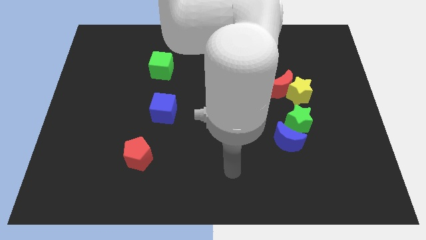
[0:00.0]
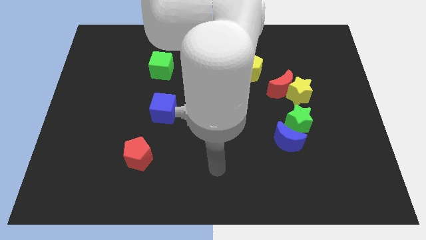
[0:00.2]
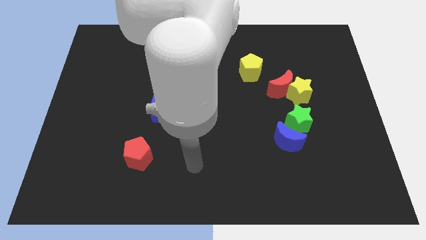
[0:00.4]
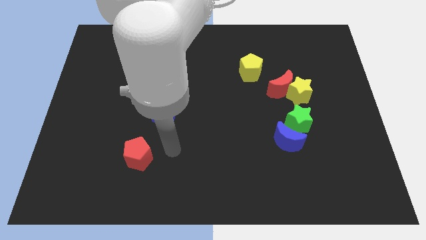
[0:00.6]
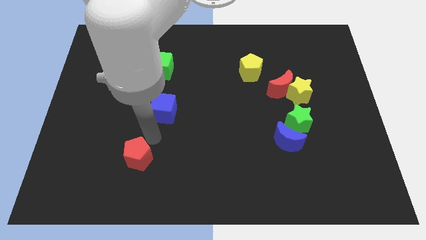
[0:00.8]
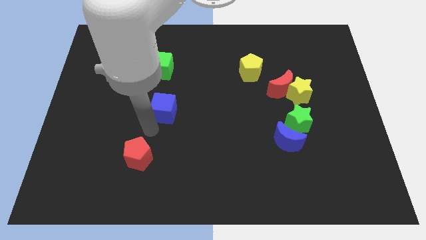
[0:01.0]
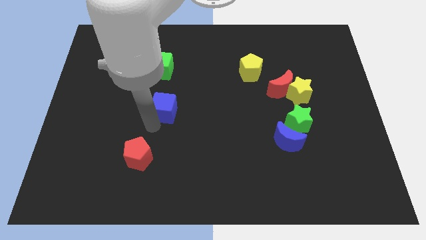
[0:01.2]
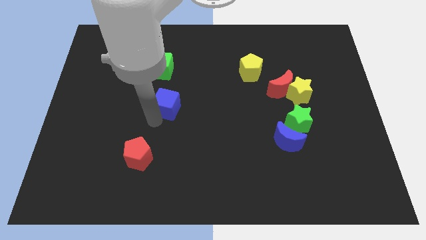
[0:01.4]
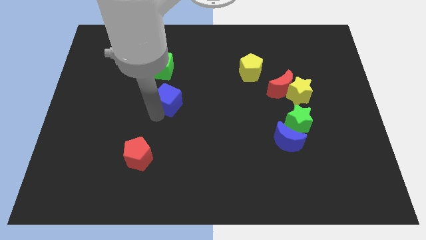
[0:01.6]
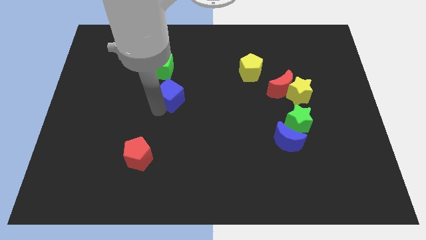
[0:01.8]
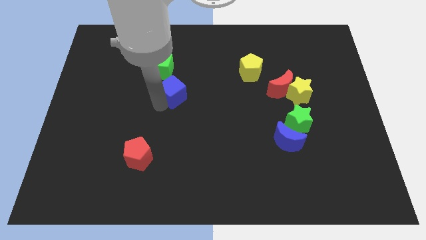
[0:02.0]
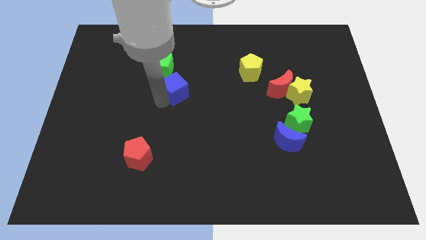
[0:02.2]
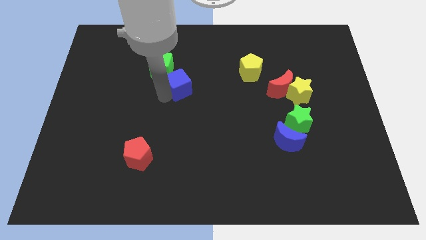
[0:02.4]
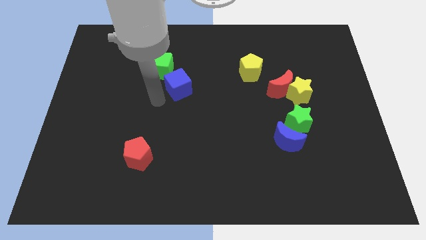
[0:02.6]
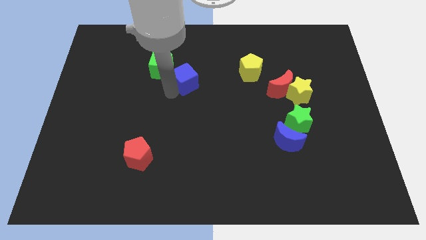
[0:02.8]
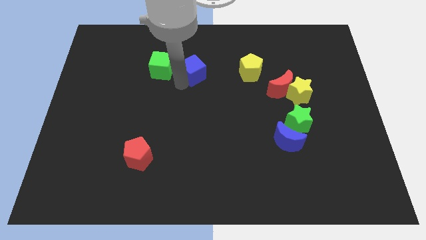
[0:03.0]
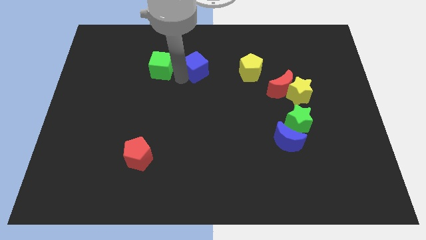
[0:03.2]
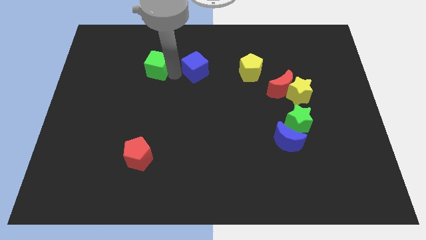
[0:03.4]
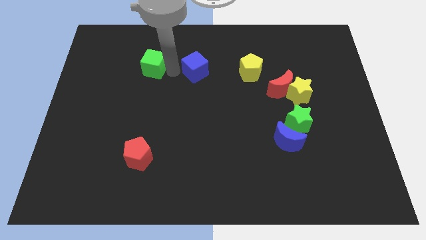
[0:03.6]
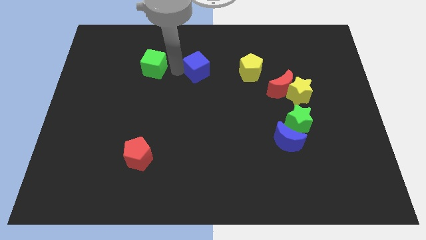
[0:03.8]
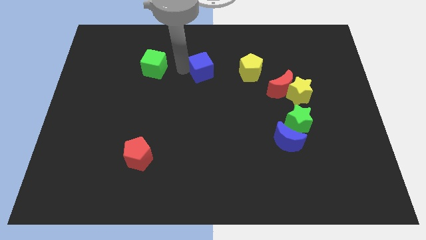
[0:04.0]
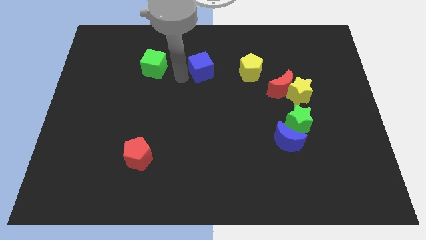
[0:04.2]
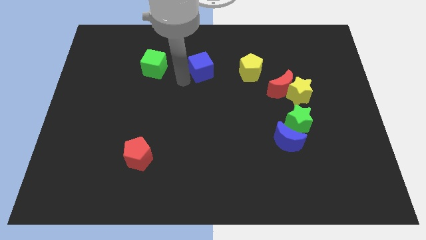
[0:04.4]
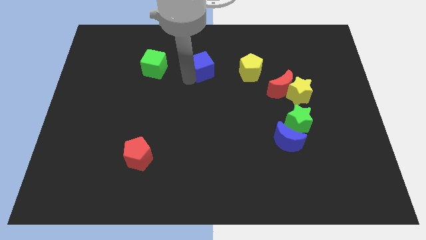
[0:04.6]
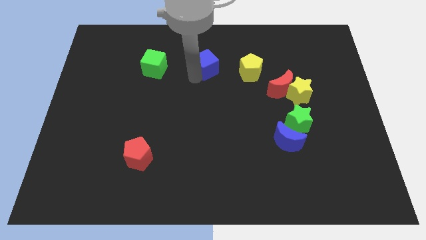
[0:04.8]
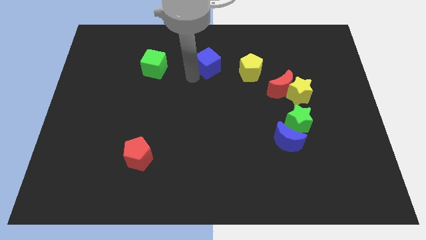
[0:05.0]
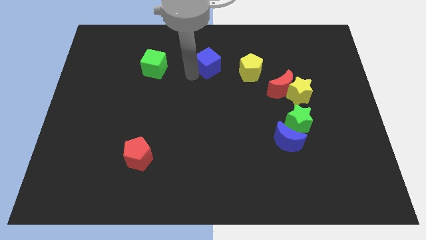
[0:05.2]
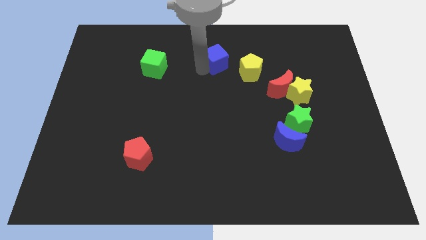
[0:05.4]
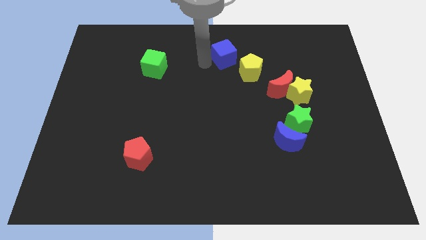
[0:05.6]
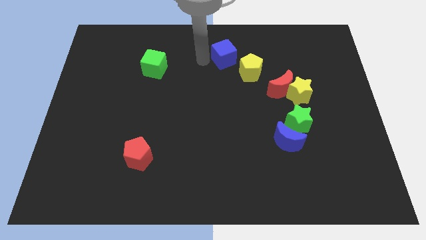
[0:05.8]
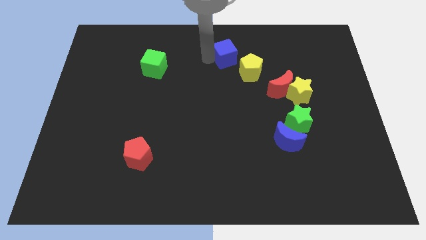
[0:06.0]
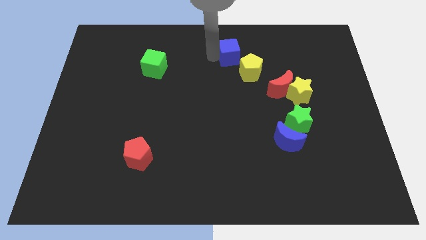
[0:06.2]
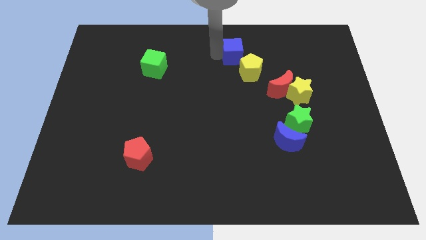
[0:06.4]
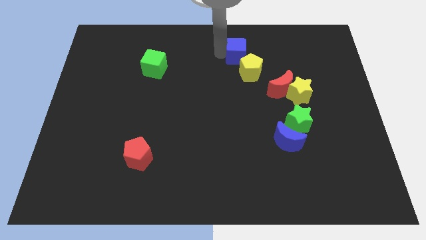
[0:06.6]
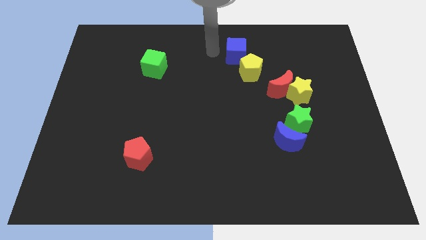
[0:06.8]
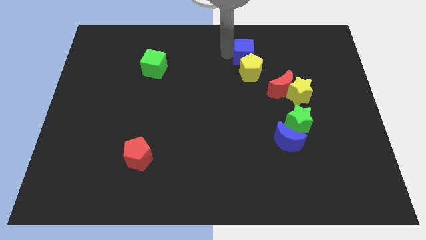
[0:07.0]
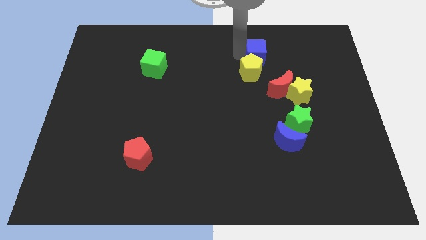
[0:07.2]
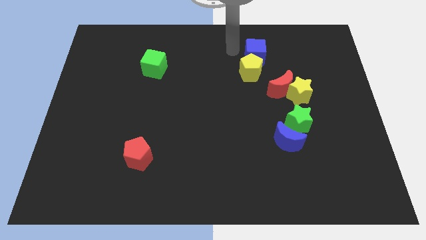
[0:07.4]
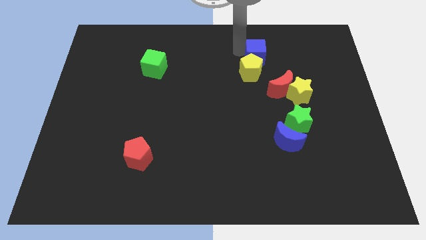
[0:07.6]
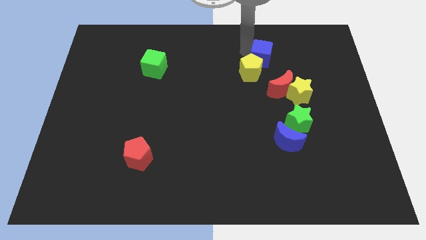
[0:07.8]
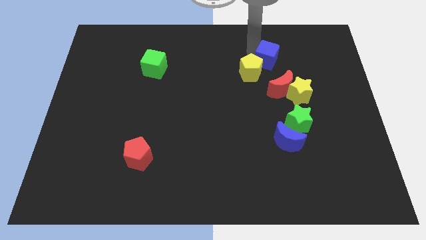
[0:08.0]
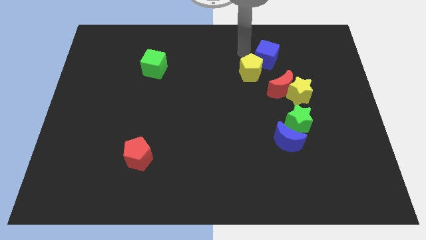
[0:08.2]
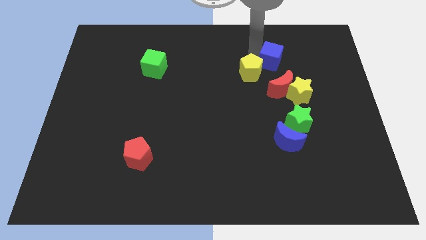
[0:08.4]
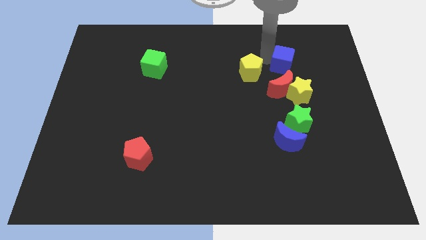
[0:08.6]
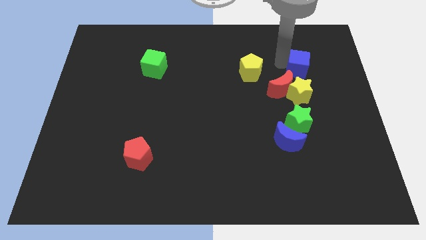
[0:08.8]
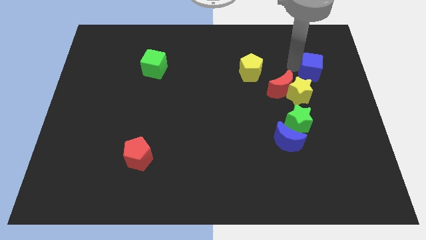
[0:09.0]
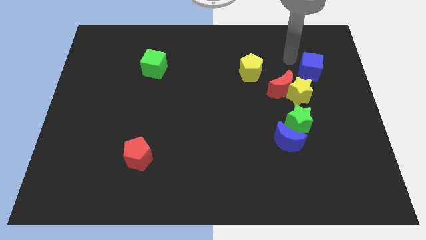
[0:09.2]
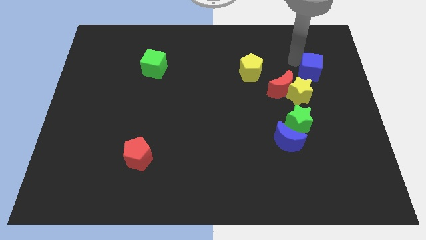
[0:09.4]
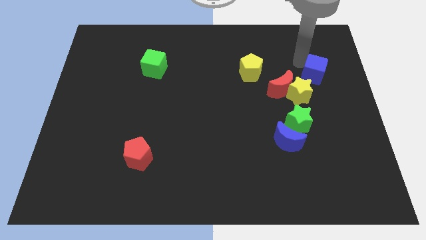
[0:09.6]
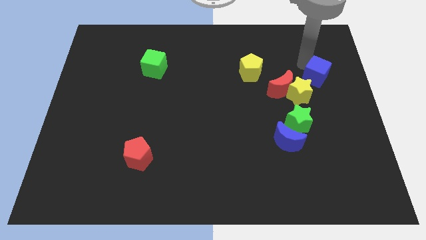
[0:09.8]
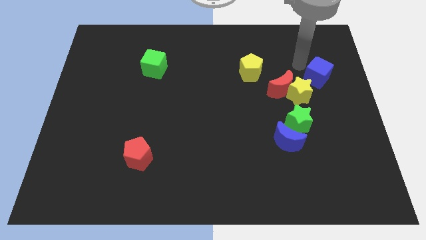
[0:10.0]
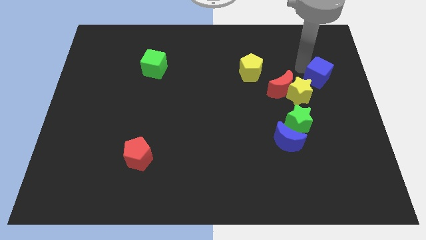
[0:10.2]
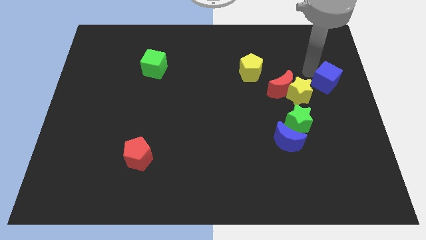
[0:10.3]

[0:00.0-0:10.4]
put the blue cube to the right side

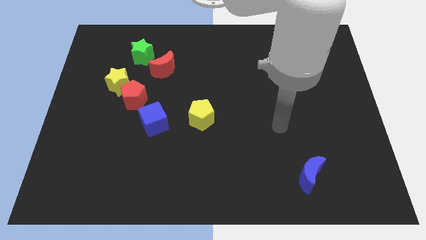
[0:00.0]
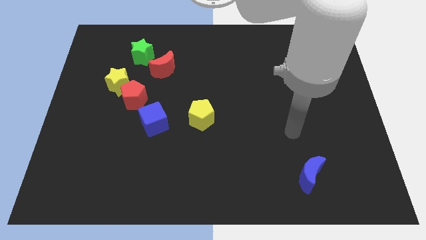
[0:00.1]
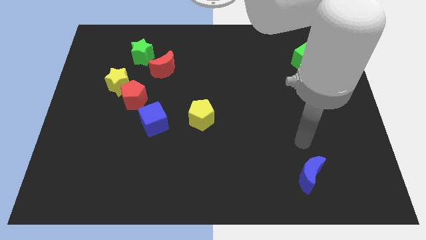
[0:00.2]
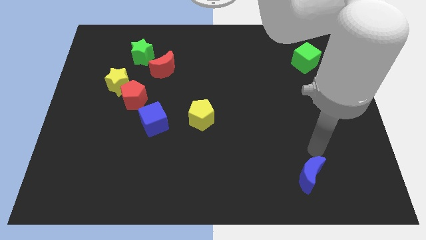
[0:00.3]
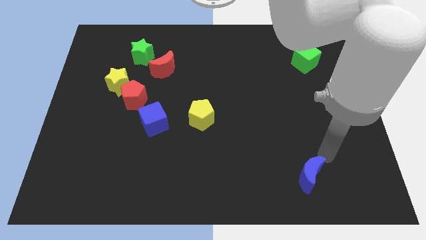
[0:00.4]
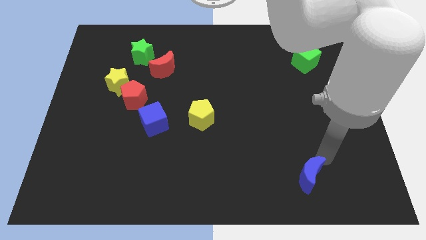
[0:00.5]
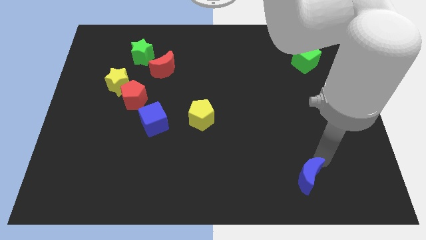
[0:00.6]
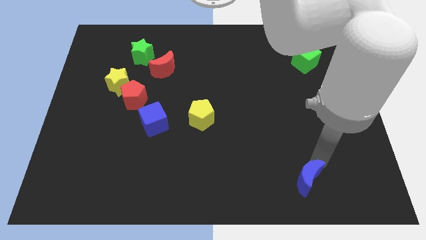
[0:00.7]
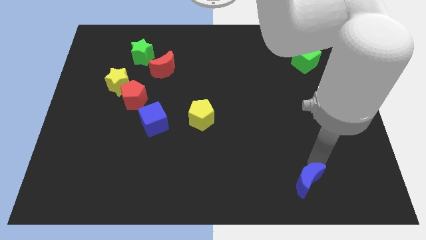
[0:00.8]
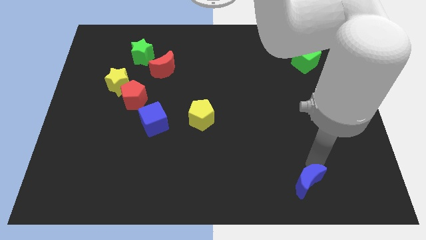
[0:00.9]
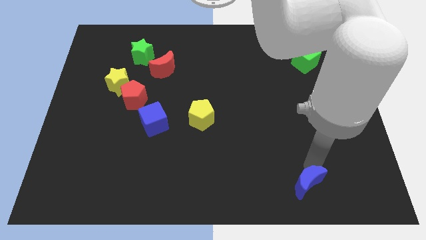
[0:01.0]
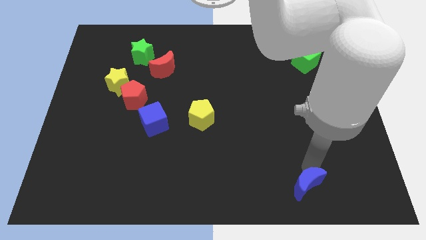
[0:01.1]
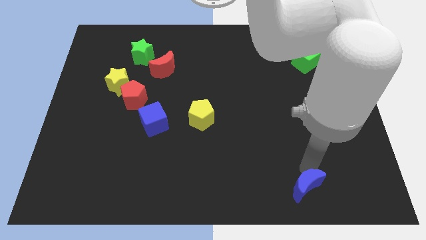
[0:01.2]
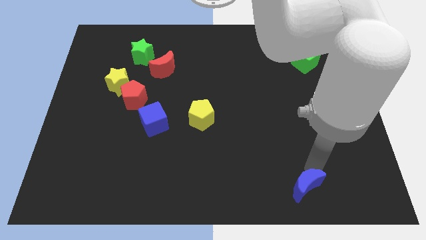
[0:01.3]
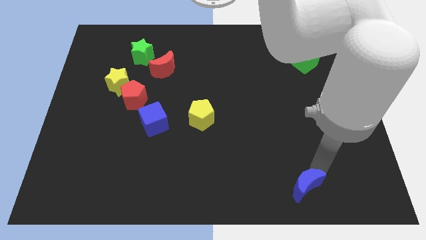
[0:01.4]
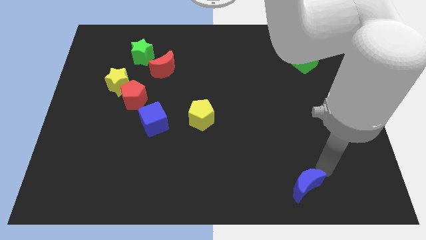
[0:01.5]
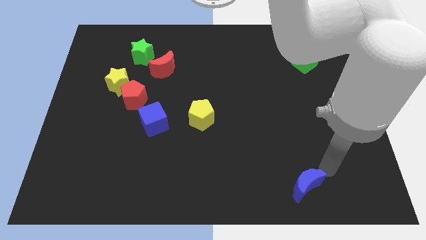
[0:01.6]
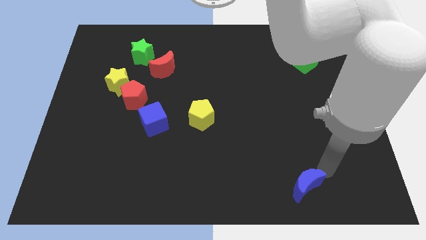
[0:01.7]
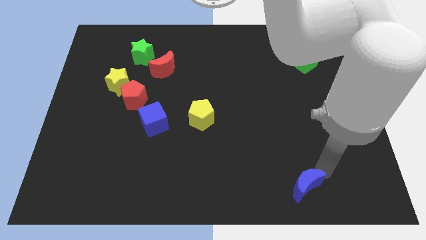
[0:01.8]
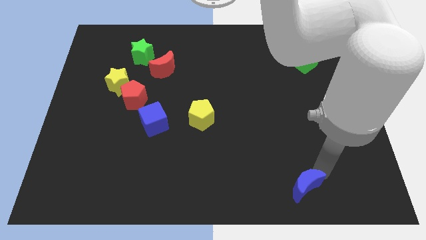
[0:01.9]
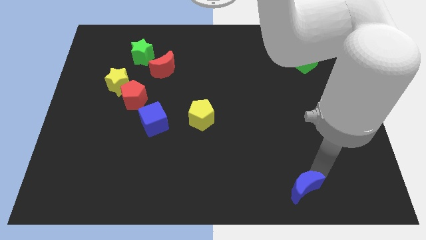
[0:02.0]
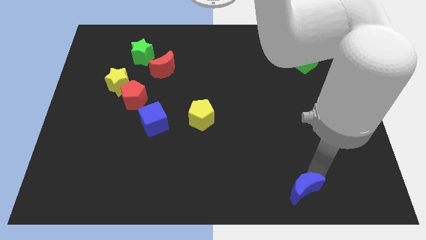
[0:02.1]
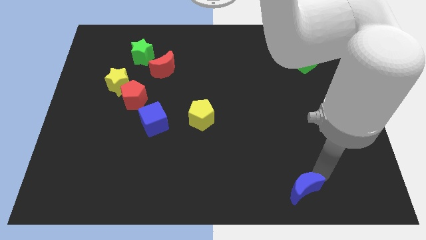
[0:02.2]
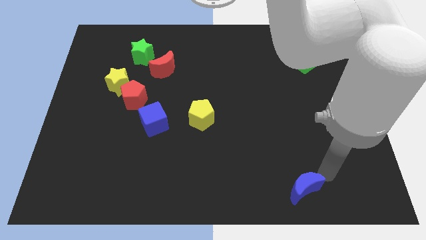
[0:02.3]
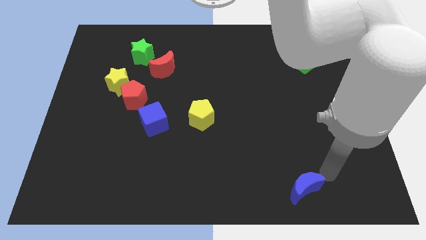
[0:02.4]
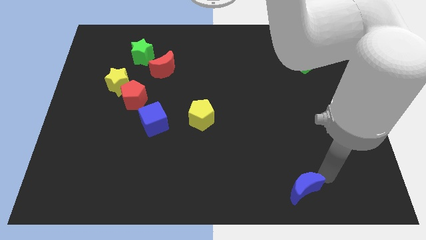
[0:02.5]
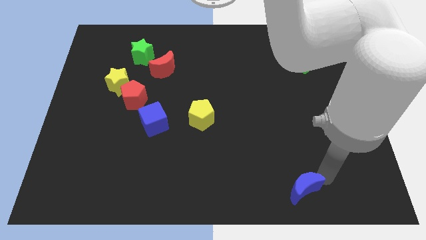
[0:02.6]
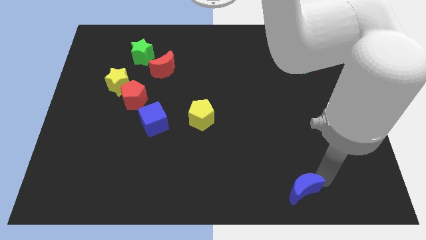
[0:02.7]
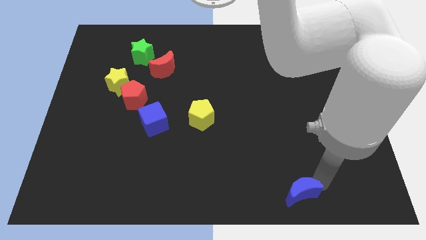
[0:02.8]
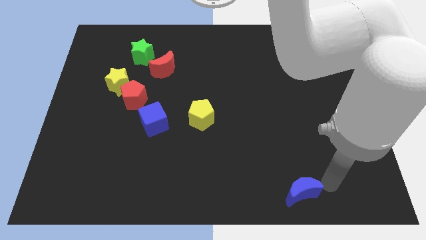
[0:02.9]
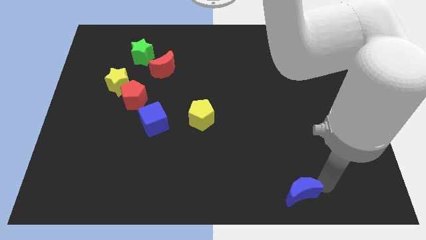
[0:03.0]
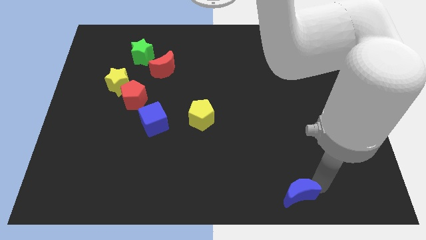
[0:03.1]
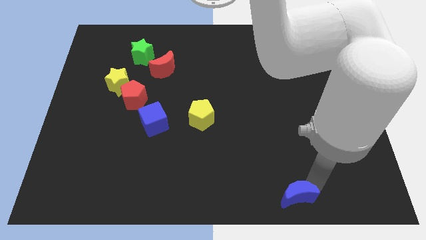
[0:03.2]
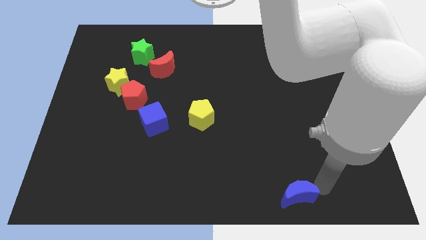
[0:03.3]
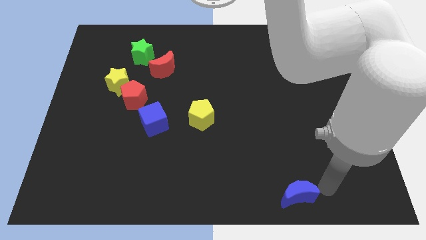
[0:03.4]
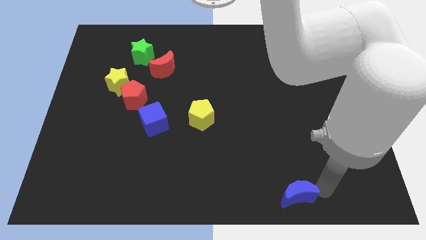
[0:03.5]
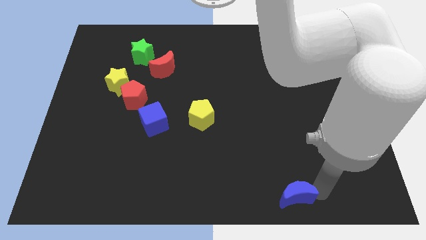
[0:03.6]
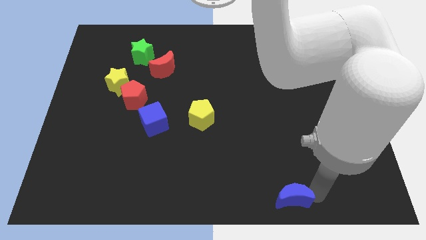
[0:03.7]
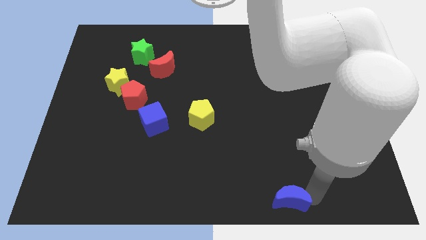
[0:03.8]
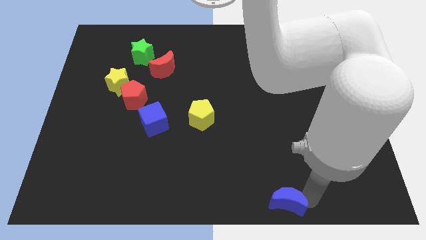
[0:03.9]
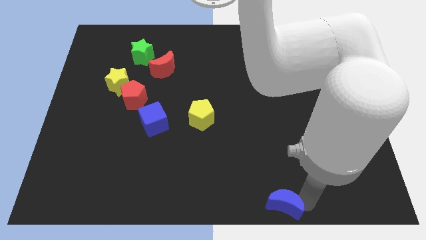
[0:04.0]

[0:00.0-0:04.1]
move the blue moon to the bottom side
